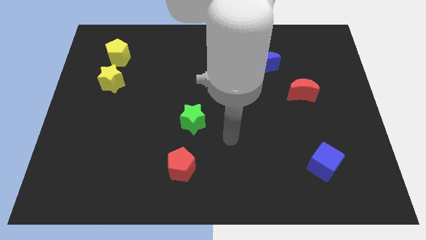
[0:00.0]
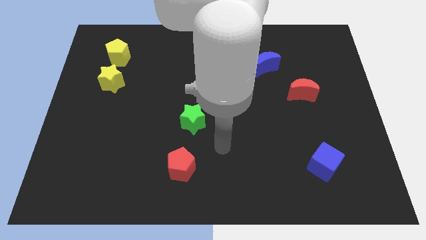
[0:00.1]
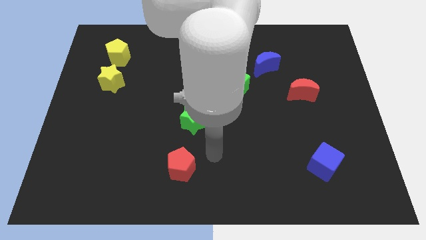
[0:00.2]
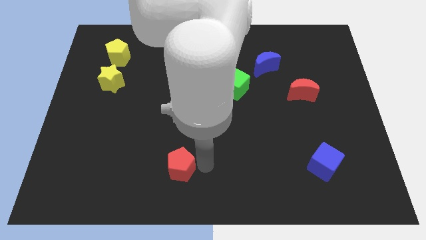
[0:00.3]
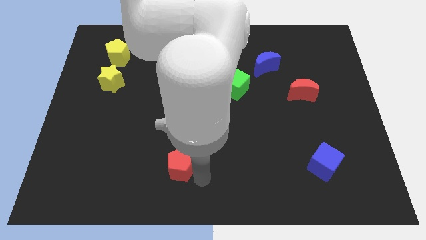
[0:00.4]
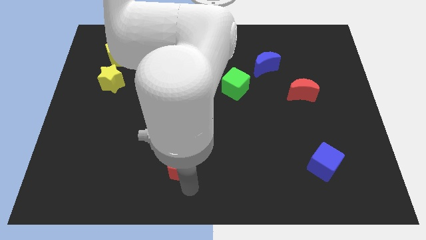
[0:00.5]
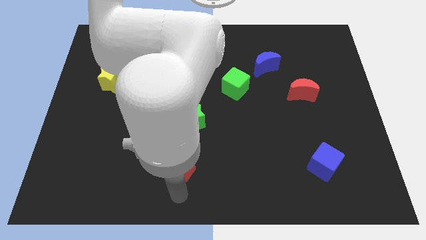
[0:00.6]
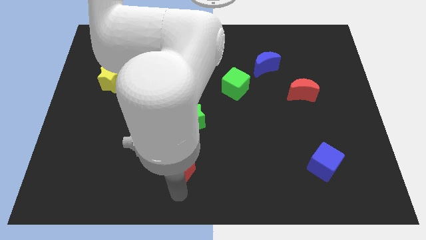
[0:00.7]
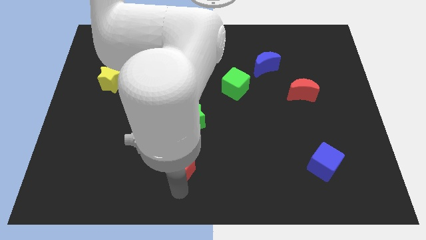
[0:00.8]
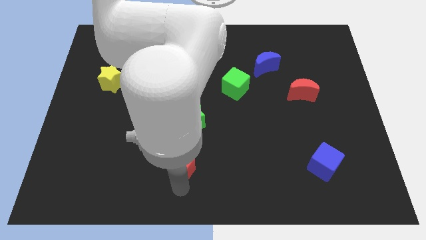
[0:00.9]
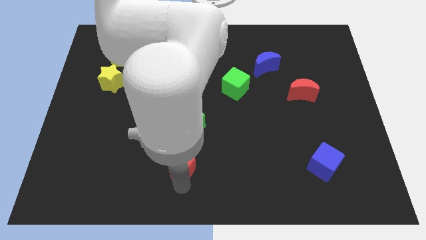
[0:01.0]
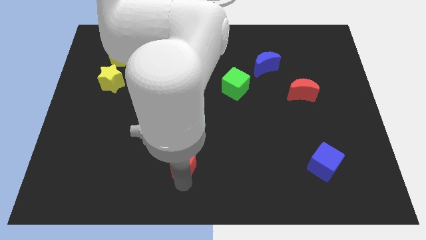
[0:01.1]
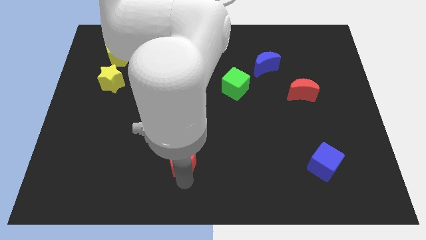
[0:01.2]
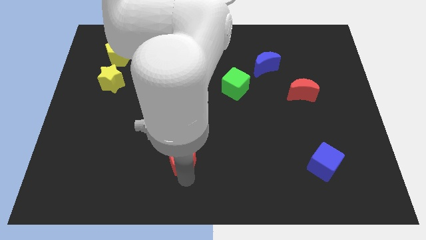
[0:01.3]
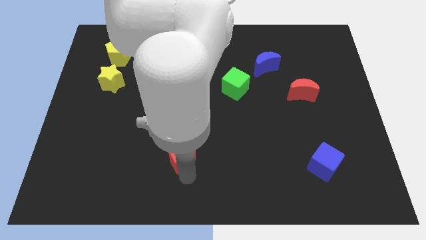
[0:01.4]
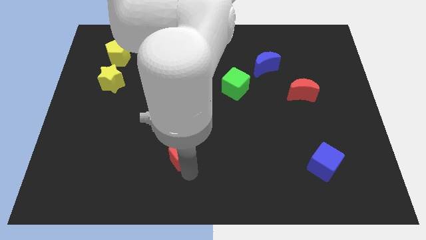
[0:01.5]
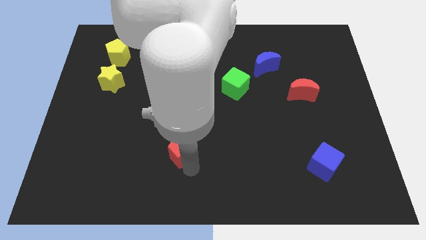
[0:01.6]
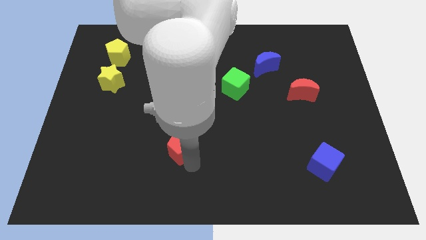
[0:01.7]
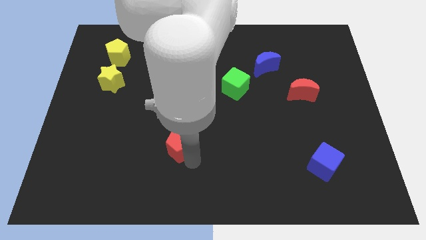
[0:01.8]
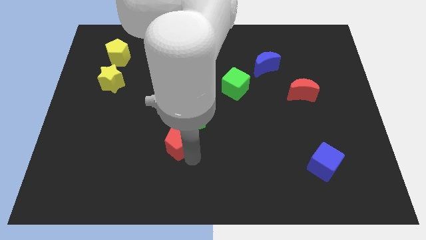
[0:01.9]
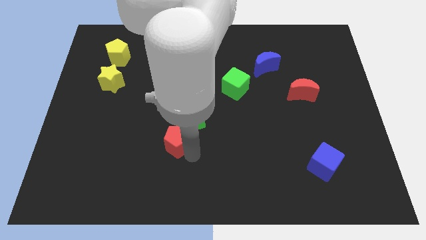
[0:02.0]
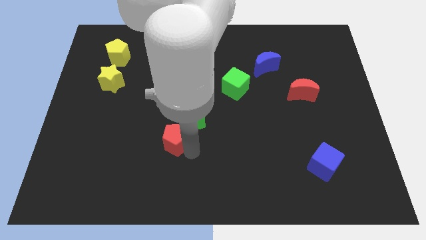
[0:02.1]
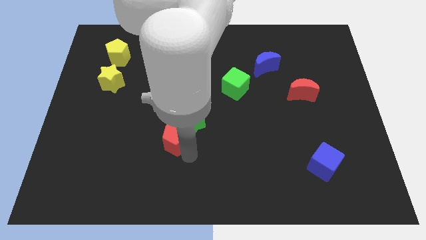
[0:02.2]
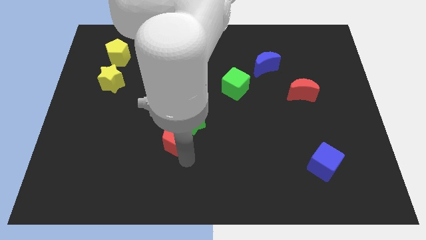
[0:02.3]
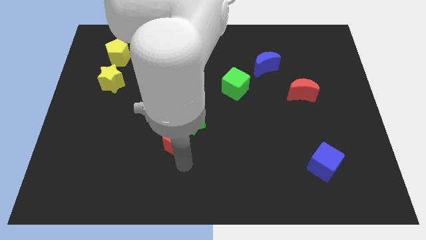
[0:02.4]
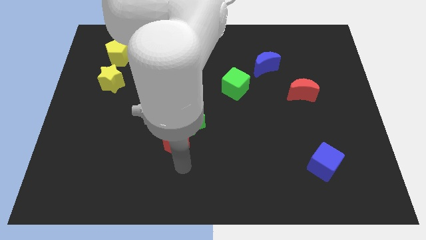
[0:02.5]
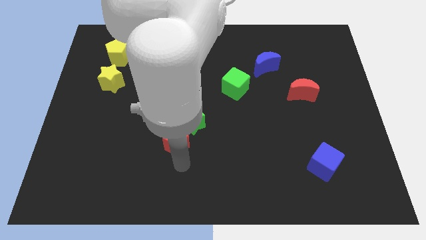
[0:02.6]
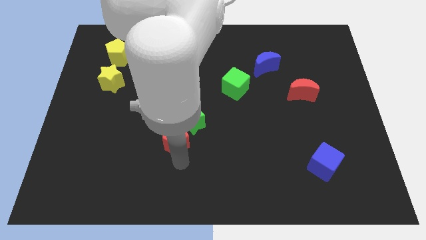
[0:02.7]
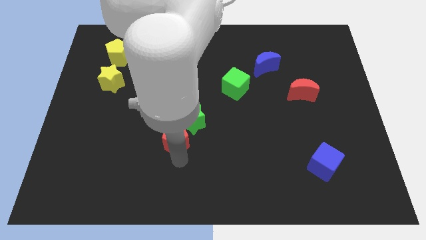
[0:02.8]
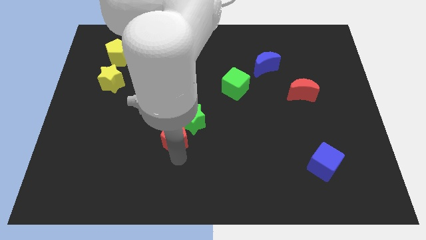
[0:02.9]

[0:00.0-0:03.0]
push the red pentagon upwards a bit

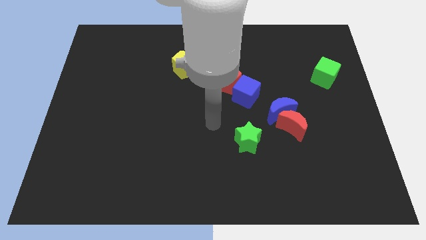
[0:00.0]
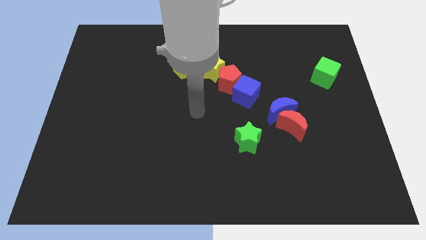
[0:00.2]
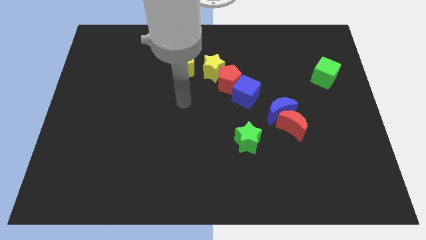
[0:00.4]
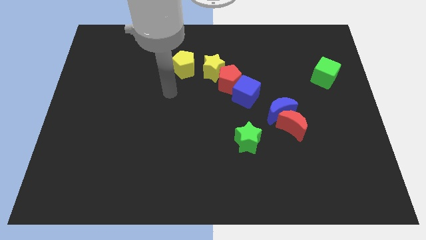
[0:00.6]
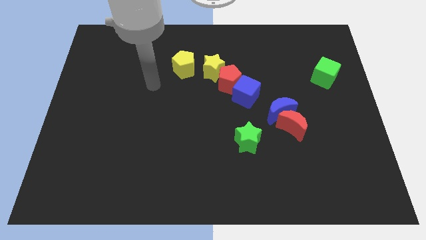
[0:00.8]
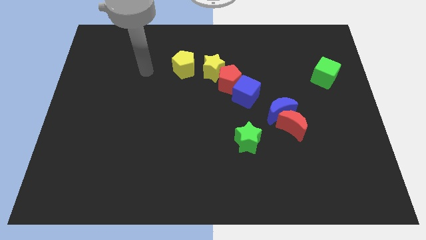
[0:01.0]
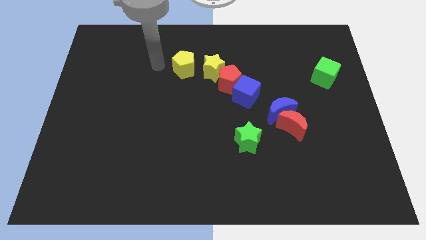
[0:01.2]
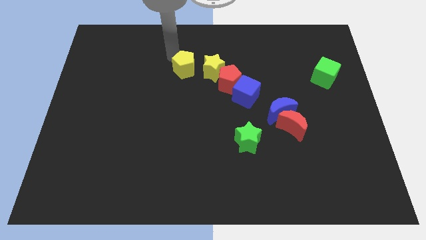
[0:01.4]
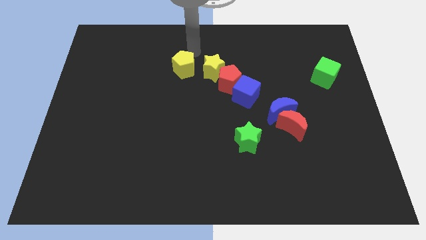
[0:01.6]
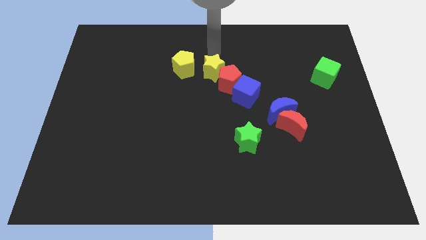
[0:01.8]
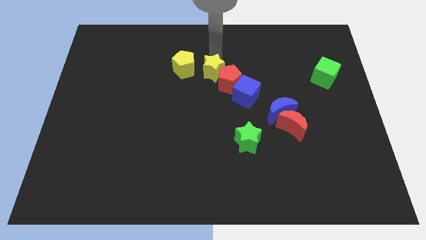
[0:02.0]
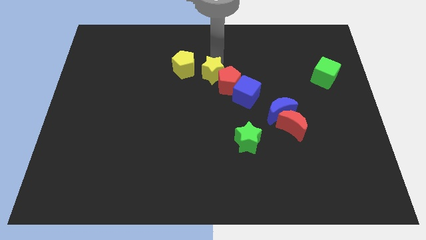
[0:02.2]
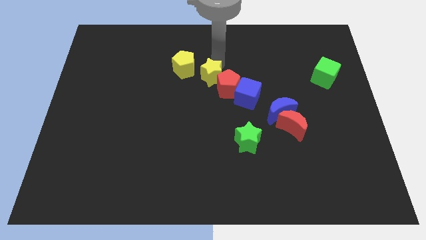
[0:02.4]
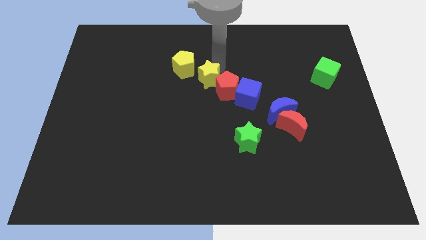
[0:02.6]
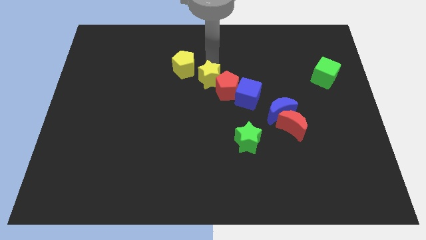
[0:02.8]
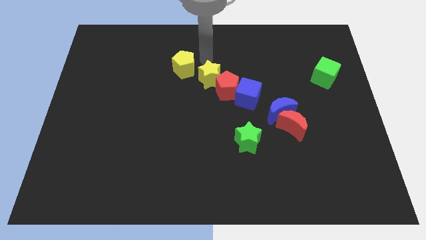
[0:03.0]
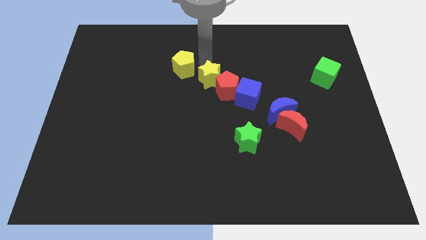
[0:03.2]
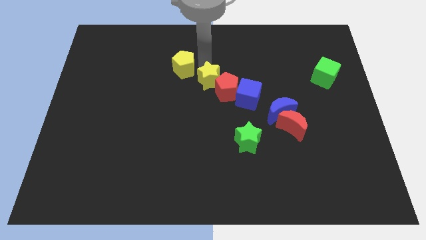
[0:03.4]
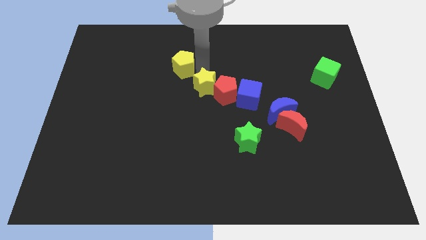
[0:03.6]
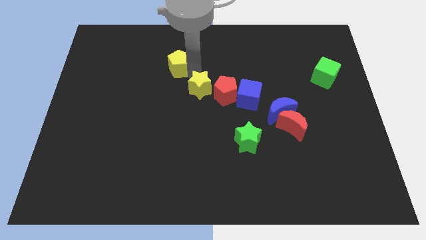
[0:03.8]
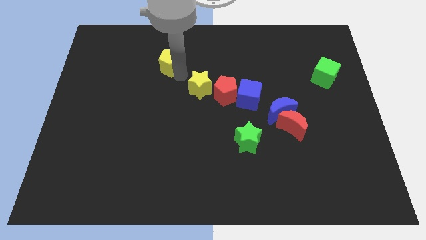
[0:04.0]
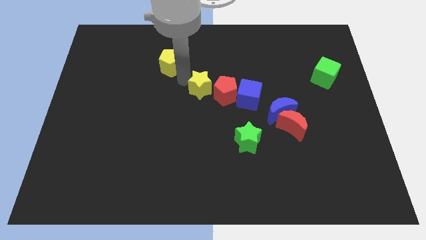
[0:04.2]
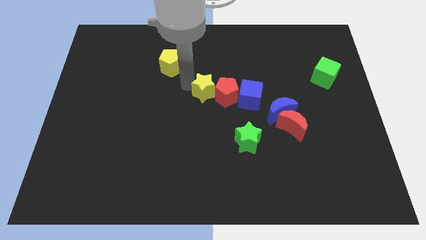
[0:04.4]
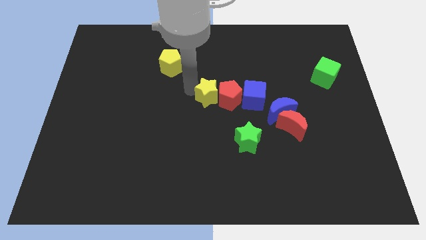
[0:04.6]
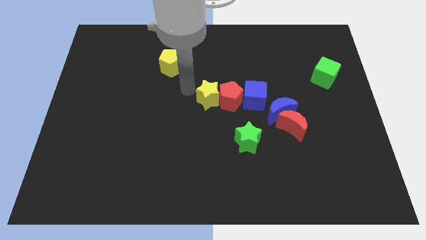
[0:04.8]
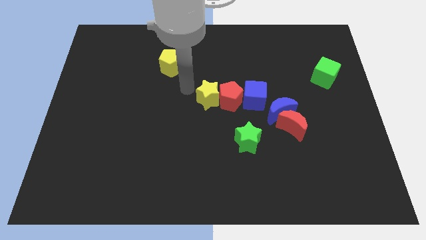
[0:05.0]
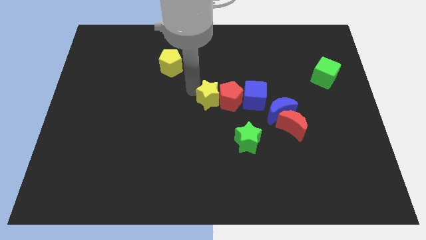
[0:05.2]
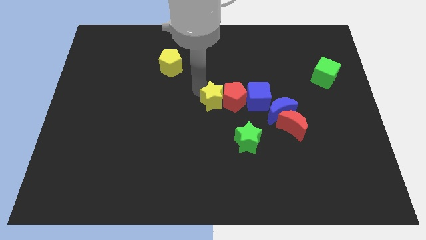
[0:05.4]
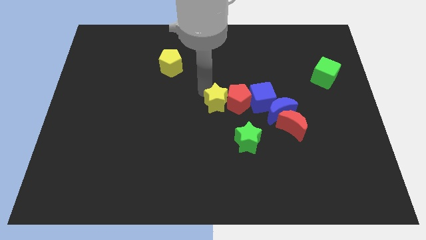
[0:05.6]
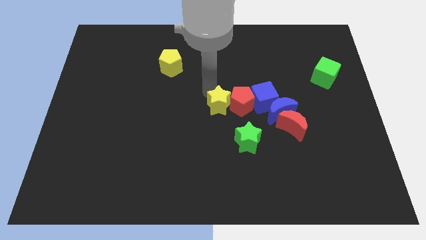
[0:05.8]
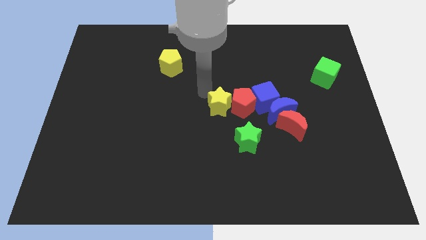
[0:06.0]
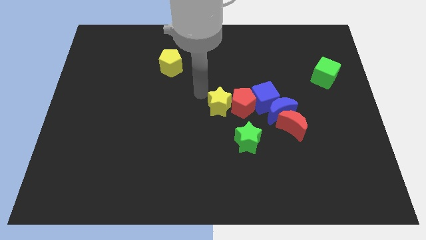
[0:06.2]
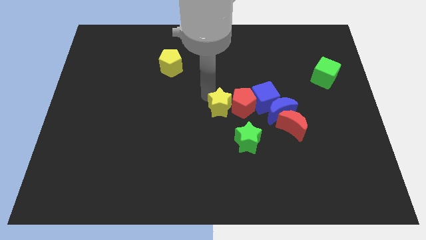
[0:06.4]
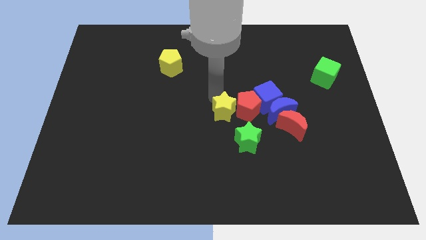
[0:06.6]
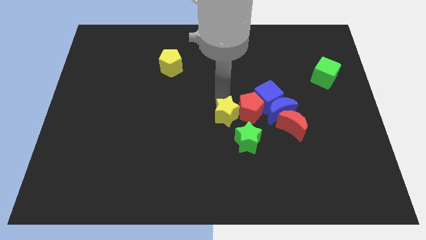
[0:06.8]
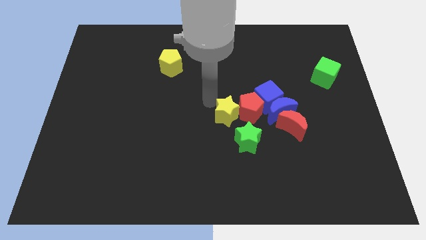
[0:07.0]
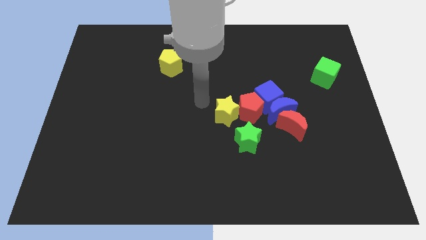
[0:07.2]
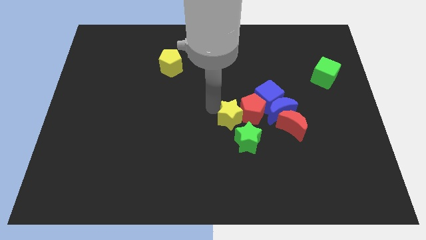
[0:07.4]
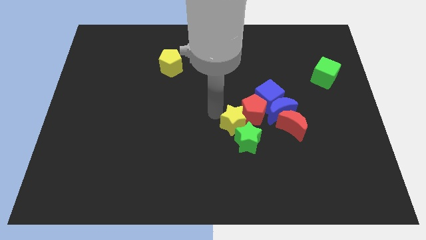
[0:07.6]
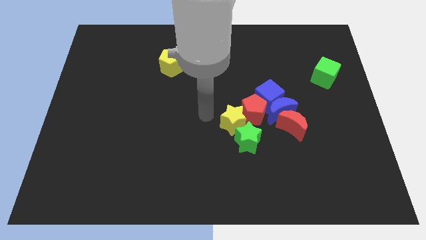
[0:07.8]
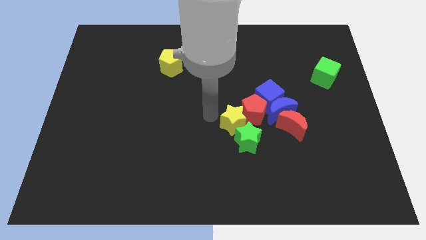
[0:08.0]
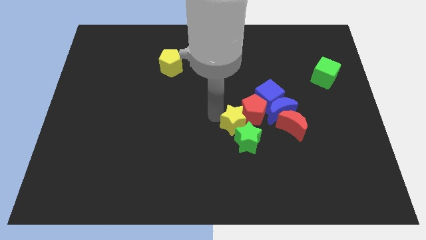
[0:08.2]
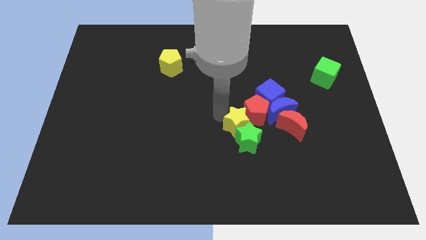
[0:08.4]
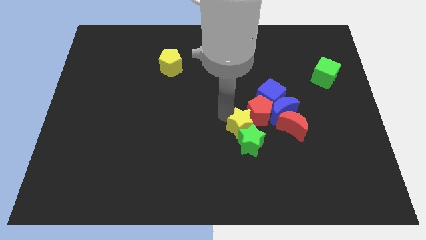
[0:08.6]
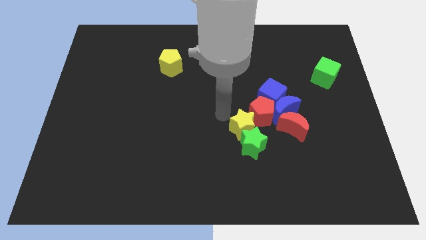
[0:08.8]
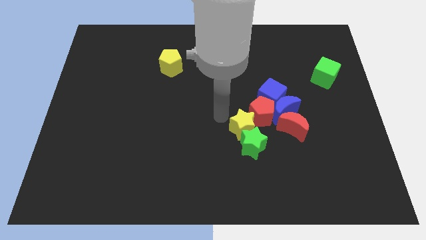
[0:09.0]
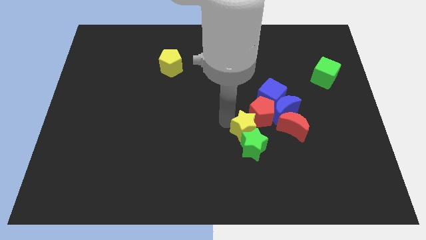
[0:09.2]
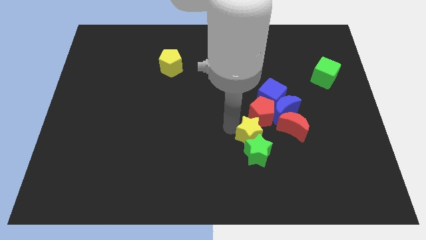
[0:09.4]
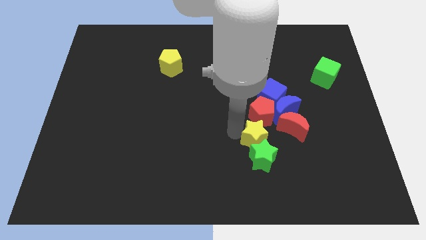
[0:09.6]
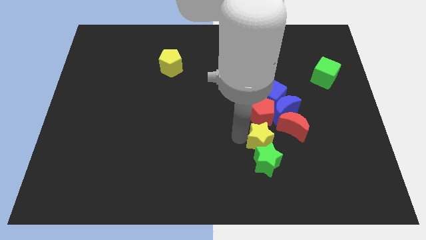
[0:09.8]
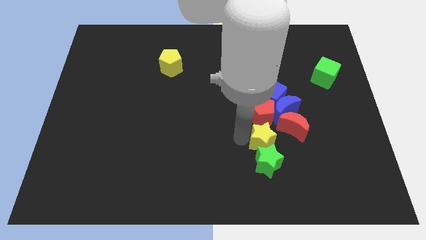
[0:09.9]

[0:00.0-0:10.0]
move the yellow star down and to the right diagonally
